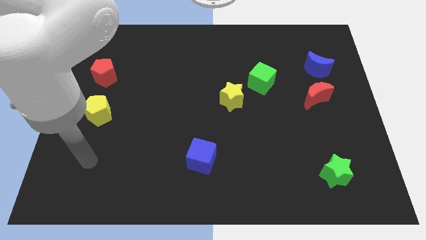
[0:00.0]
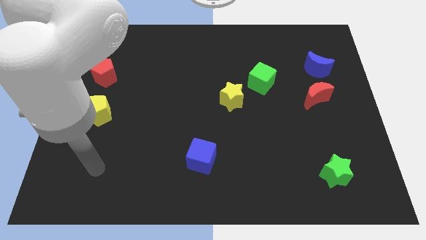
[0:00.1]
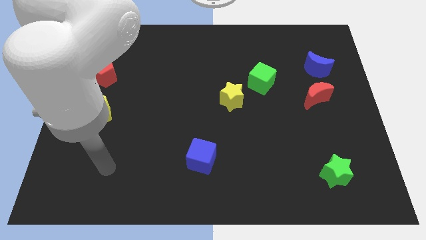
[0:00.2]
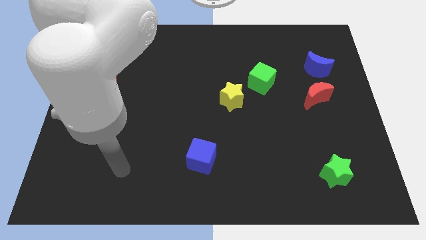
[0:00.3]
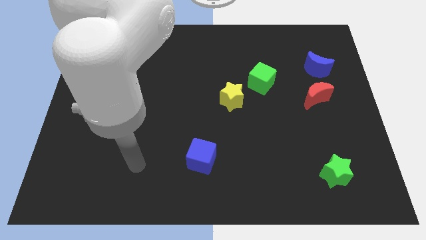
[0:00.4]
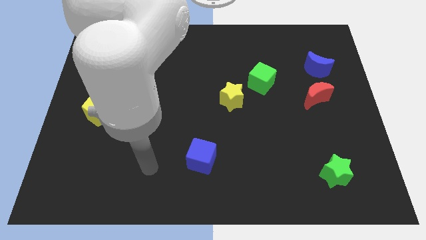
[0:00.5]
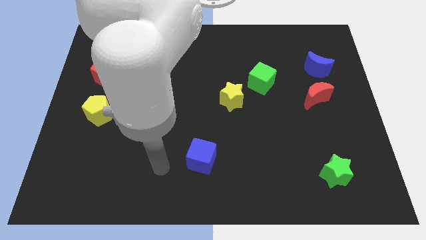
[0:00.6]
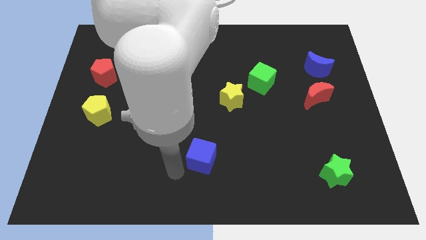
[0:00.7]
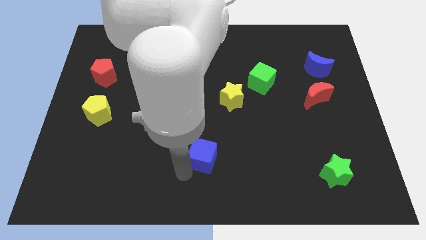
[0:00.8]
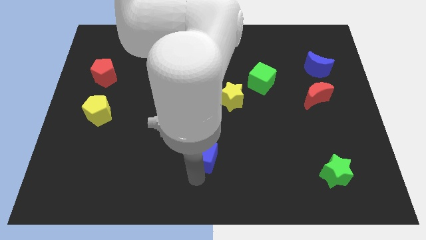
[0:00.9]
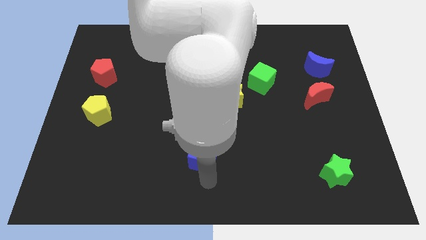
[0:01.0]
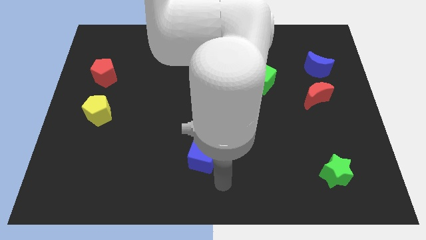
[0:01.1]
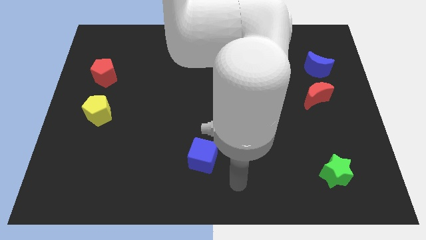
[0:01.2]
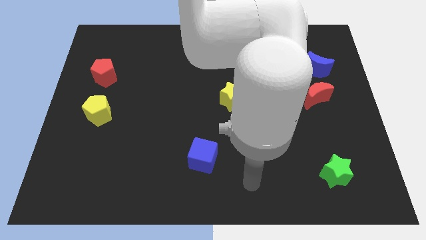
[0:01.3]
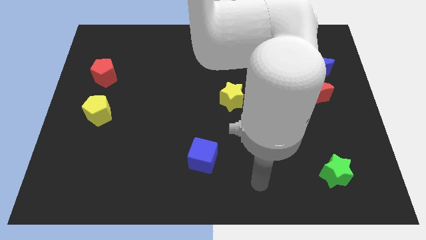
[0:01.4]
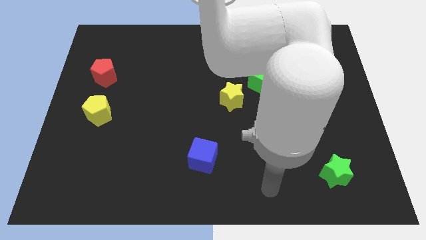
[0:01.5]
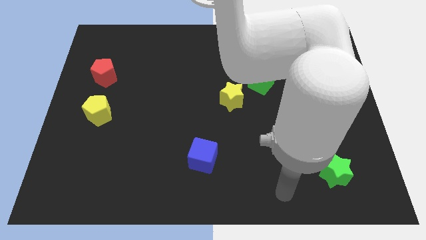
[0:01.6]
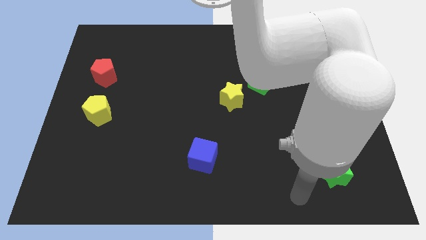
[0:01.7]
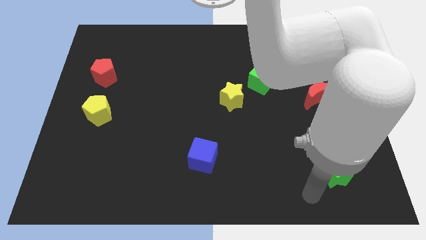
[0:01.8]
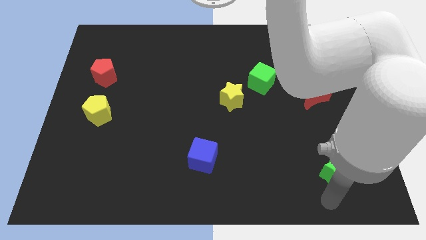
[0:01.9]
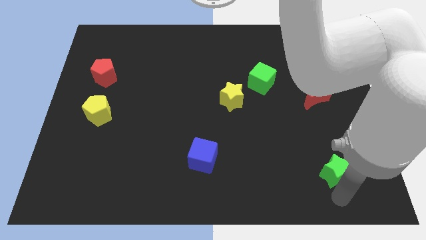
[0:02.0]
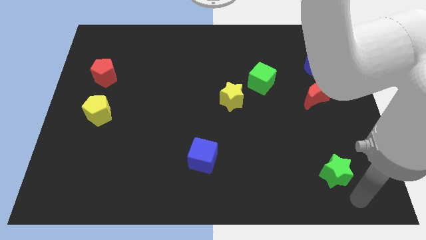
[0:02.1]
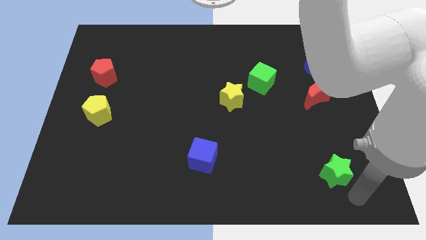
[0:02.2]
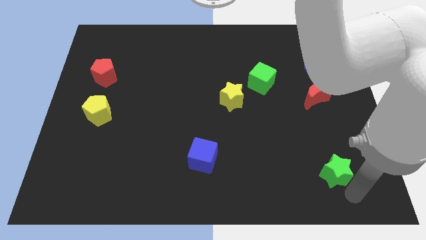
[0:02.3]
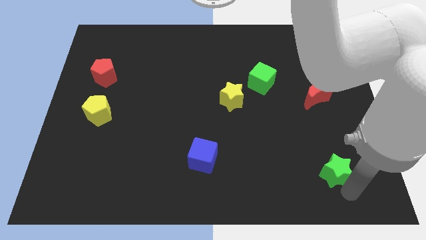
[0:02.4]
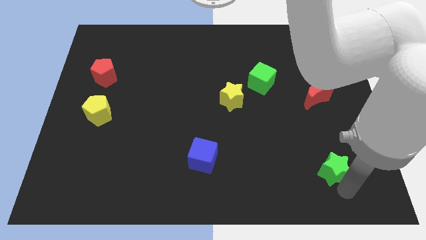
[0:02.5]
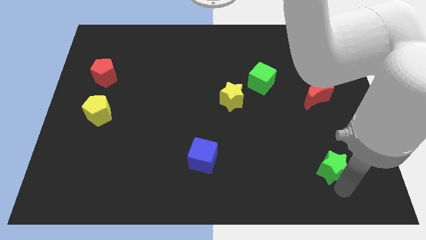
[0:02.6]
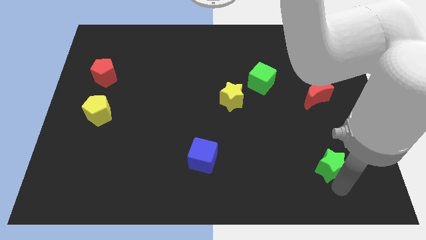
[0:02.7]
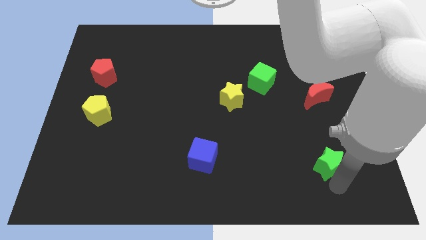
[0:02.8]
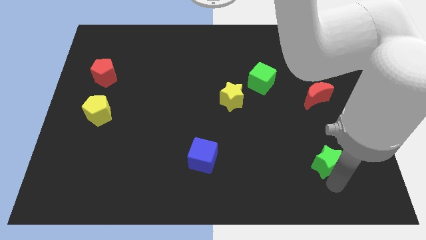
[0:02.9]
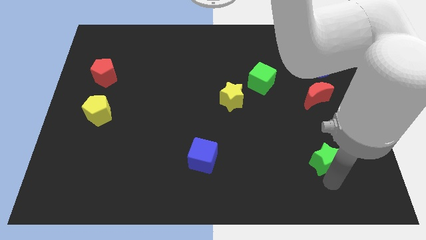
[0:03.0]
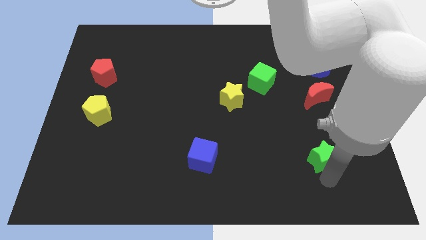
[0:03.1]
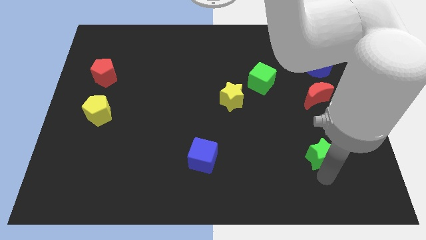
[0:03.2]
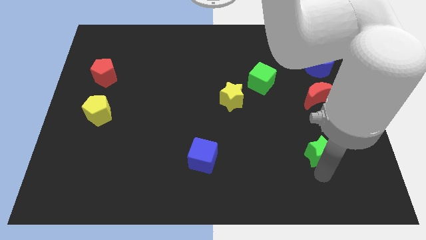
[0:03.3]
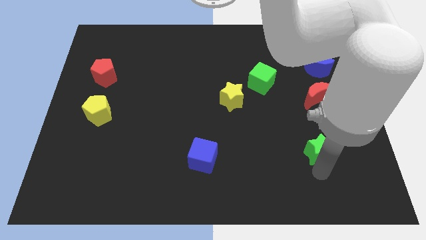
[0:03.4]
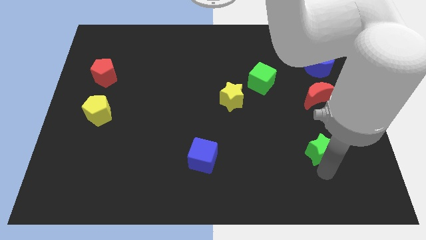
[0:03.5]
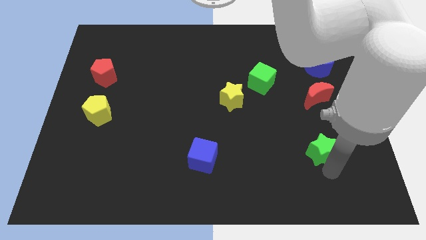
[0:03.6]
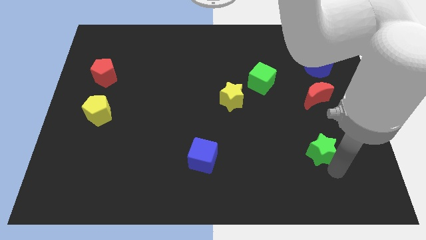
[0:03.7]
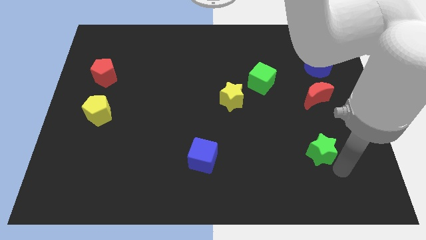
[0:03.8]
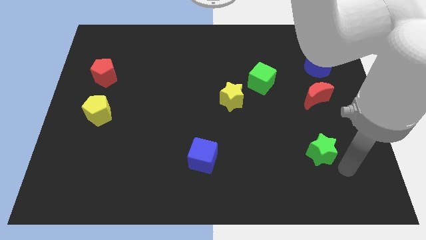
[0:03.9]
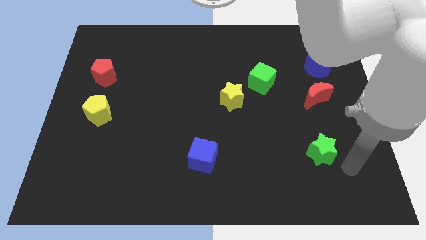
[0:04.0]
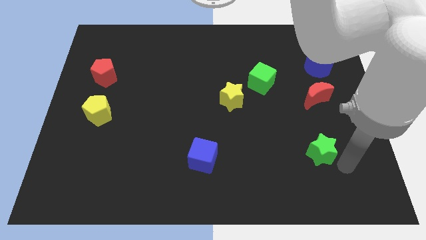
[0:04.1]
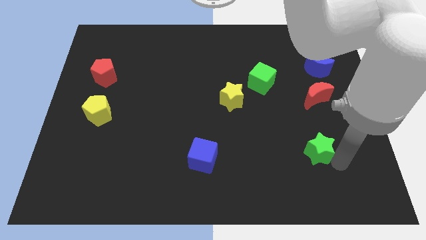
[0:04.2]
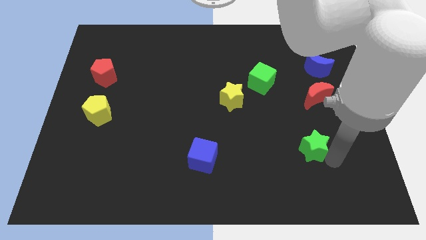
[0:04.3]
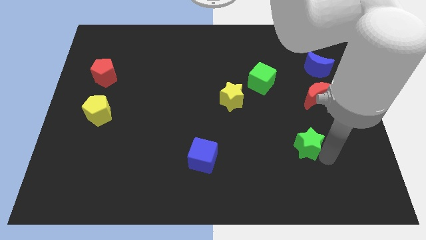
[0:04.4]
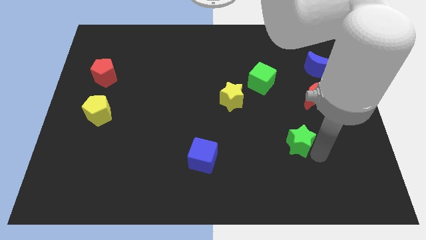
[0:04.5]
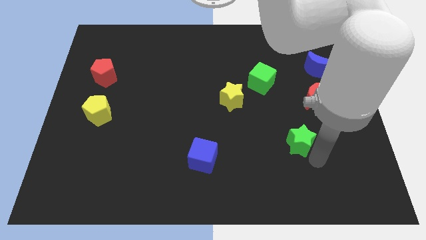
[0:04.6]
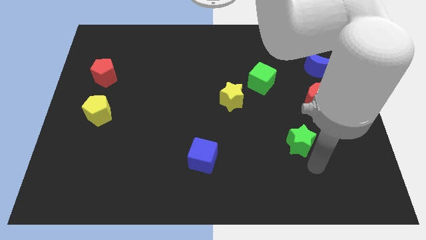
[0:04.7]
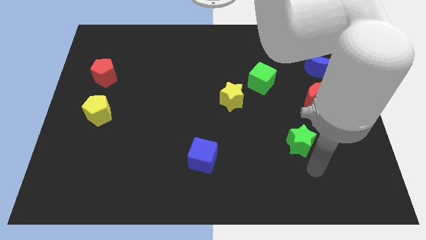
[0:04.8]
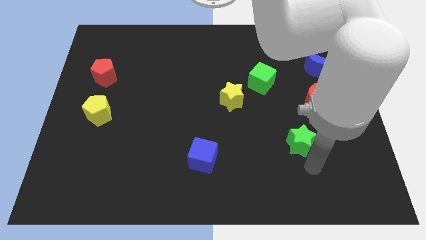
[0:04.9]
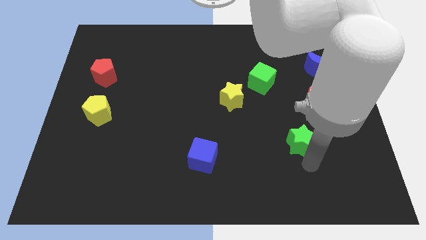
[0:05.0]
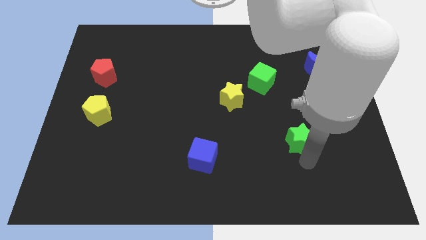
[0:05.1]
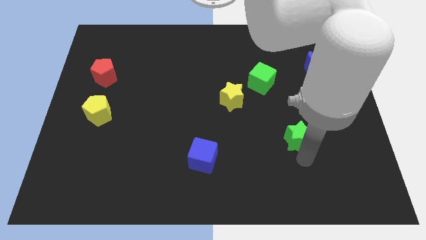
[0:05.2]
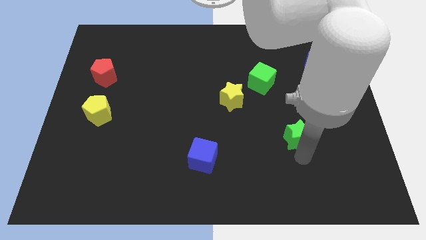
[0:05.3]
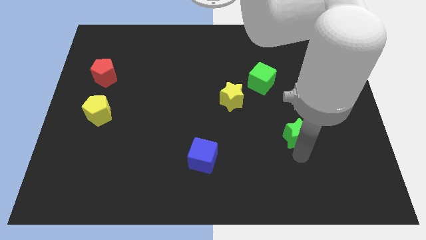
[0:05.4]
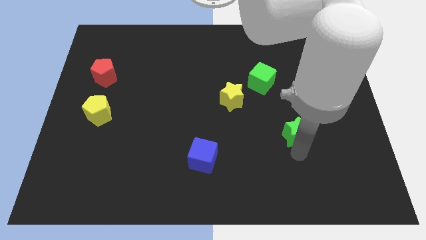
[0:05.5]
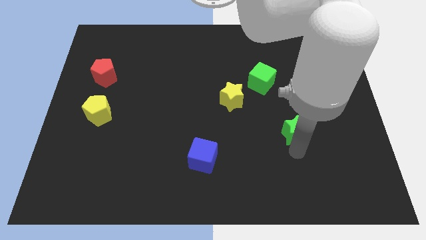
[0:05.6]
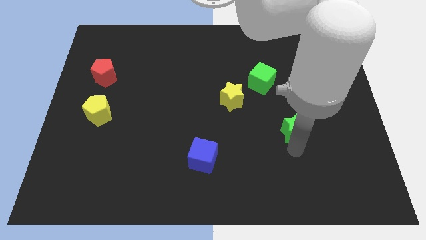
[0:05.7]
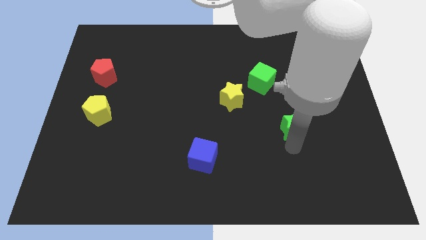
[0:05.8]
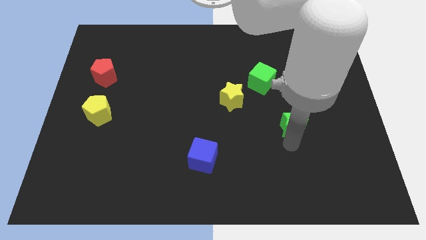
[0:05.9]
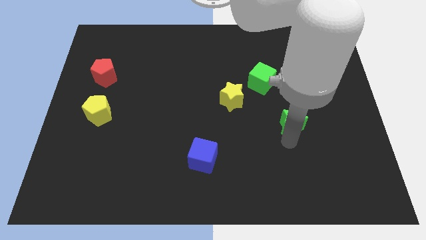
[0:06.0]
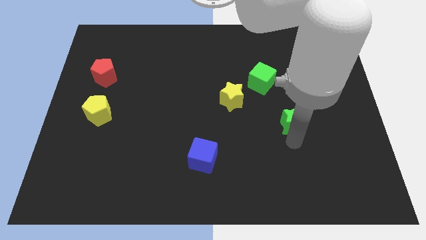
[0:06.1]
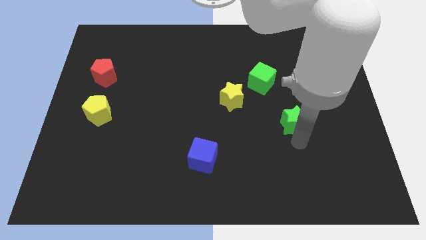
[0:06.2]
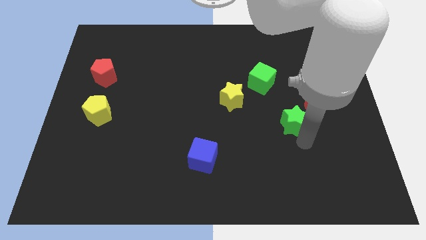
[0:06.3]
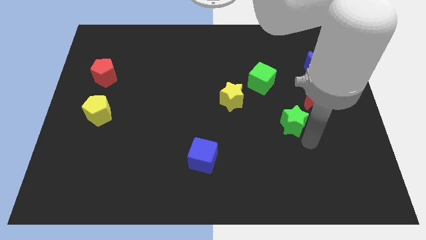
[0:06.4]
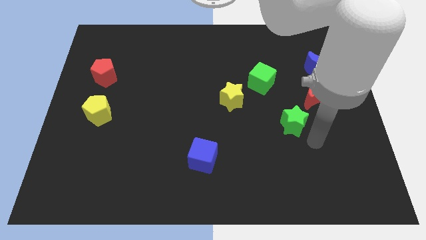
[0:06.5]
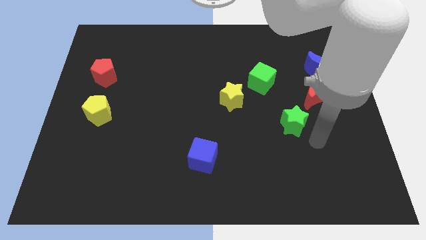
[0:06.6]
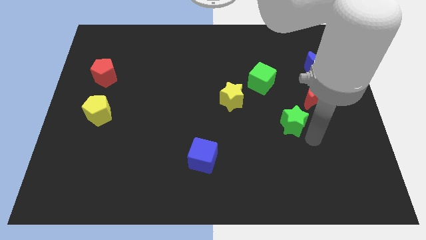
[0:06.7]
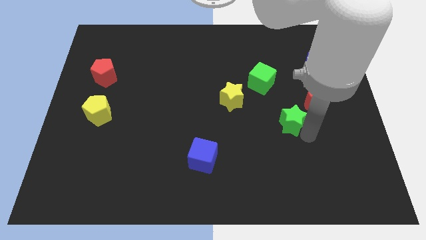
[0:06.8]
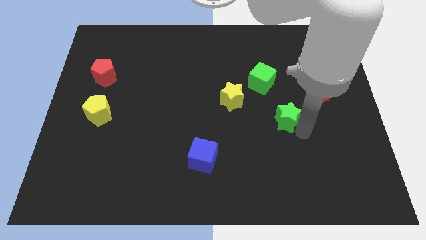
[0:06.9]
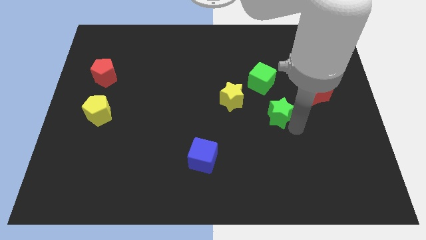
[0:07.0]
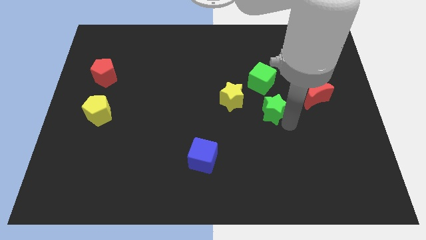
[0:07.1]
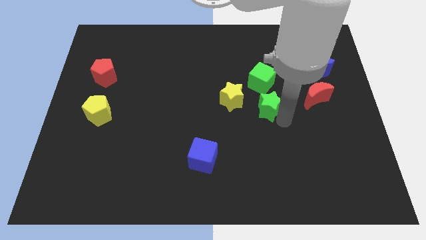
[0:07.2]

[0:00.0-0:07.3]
move the green star up and to the left diagonally

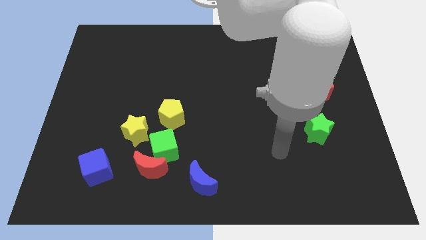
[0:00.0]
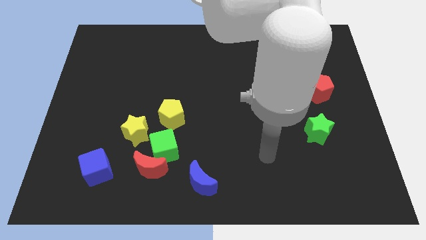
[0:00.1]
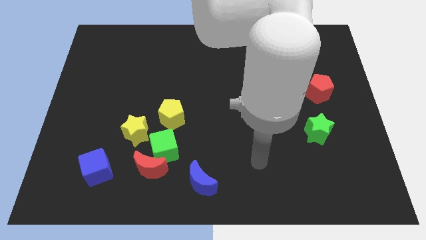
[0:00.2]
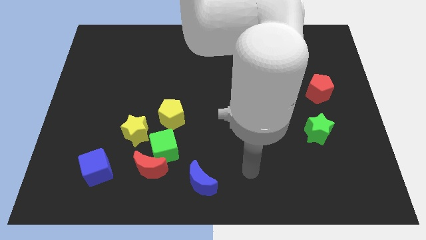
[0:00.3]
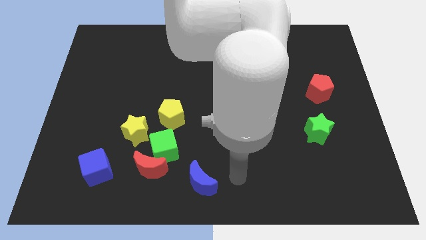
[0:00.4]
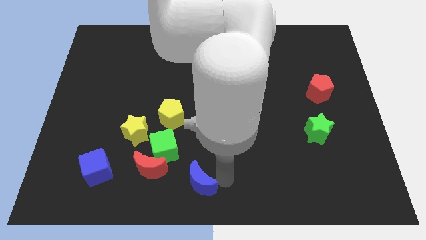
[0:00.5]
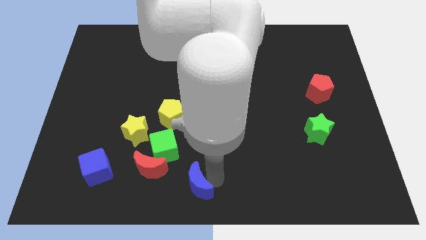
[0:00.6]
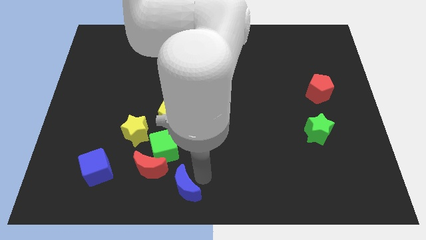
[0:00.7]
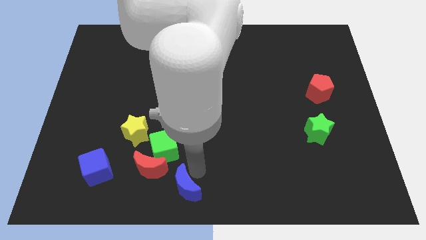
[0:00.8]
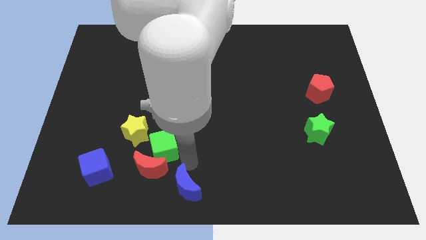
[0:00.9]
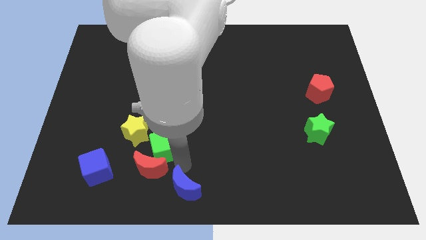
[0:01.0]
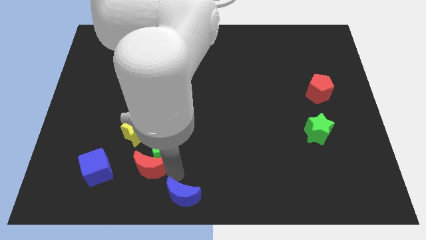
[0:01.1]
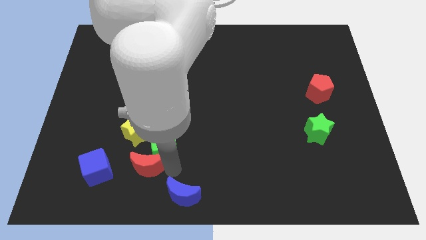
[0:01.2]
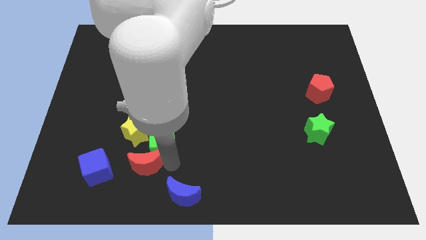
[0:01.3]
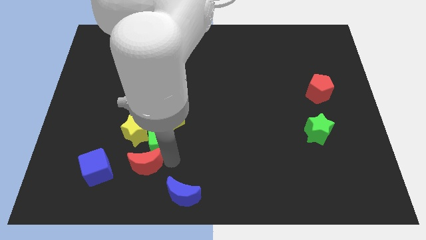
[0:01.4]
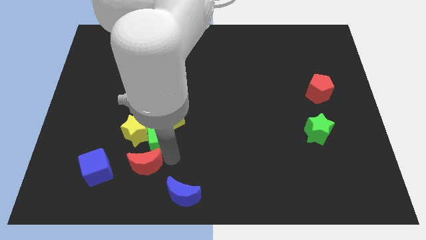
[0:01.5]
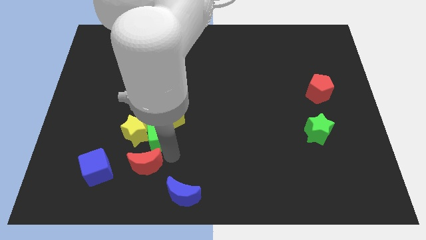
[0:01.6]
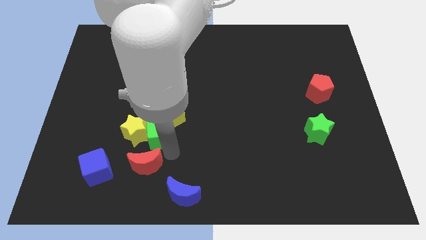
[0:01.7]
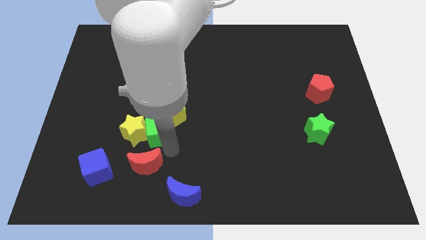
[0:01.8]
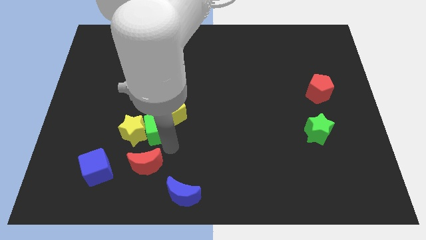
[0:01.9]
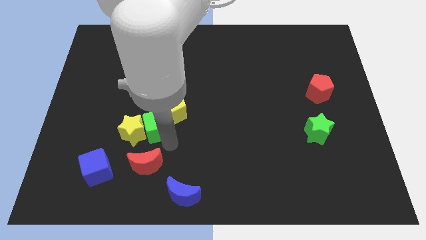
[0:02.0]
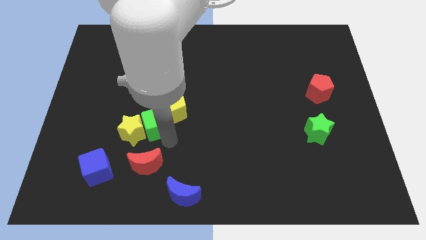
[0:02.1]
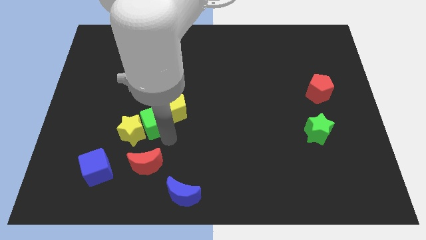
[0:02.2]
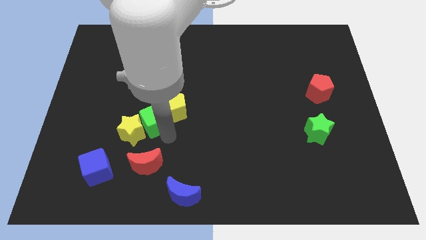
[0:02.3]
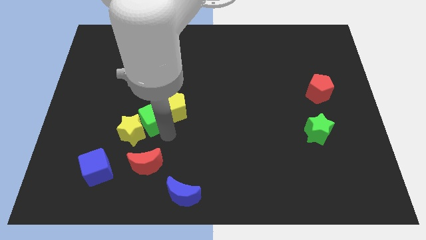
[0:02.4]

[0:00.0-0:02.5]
slide the green cube somewhat up and to the left diagonally
